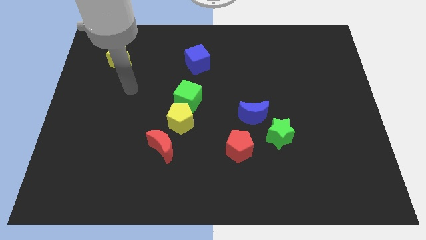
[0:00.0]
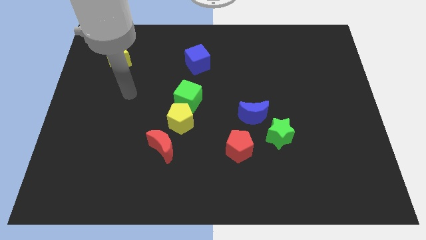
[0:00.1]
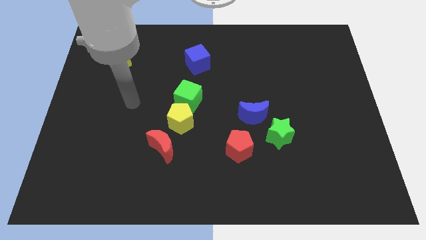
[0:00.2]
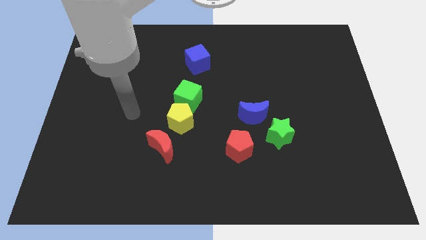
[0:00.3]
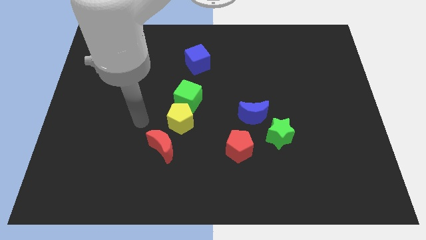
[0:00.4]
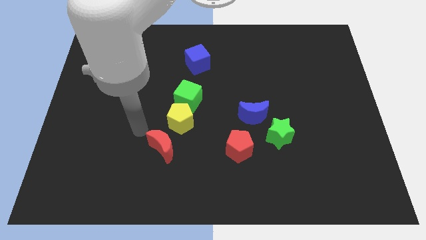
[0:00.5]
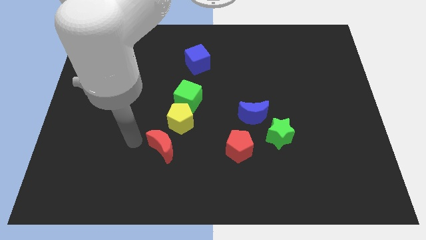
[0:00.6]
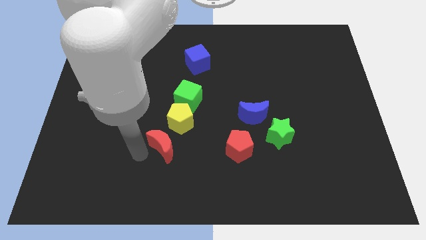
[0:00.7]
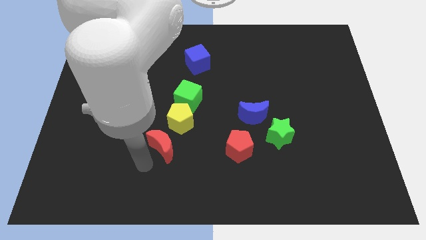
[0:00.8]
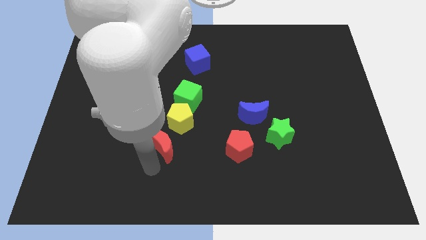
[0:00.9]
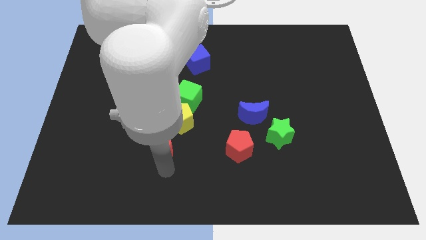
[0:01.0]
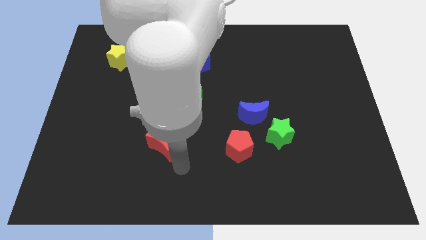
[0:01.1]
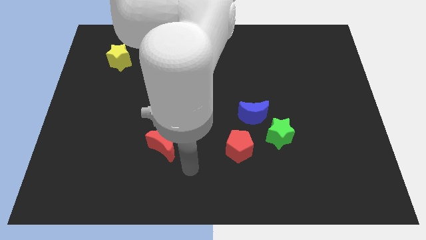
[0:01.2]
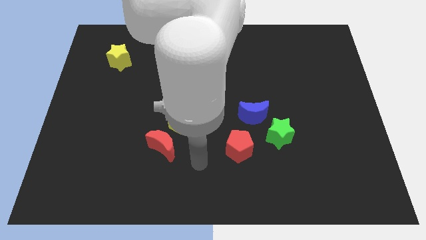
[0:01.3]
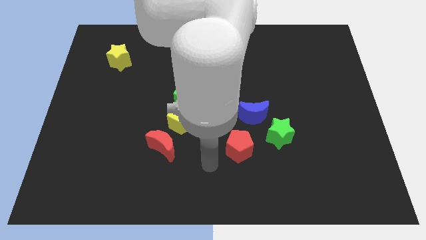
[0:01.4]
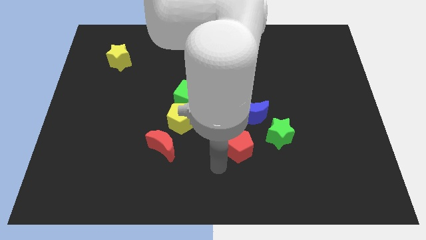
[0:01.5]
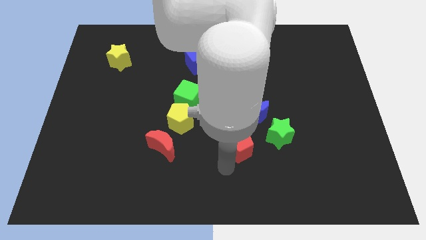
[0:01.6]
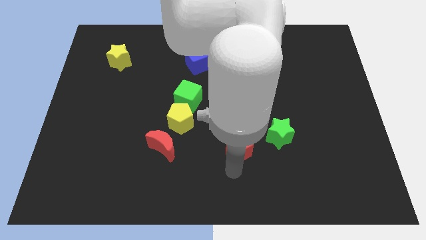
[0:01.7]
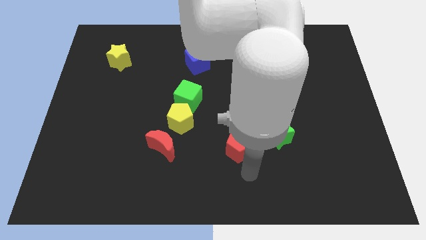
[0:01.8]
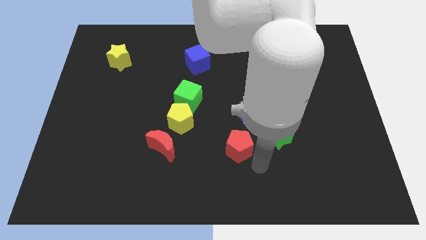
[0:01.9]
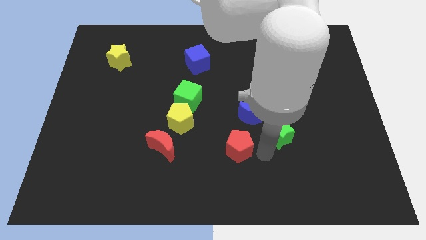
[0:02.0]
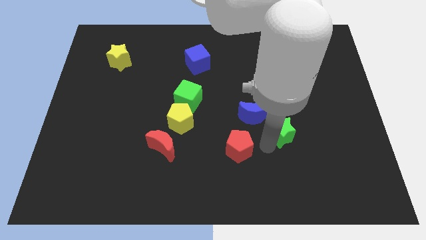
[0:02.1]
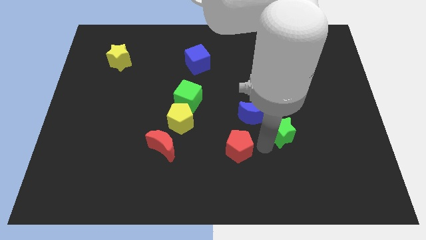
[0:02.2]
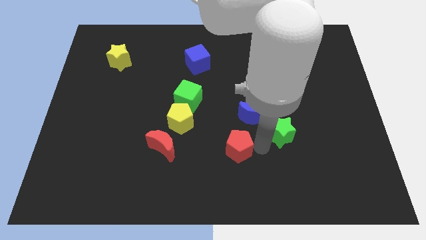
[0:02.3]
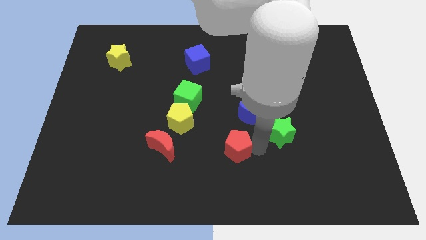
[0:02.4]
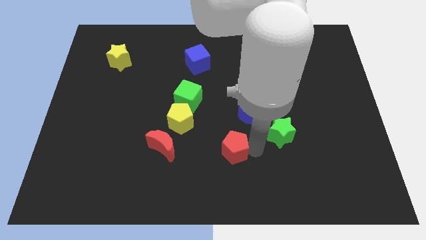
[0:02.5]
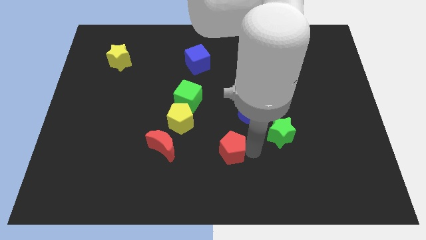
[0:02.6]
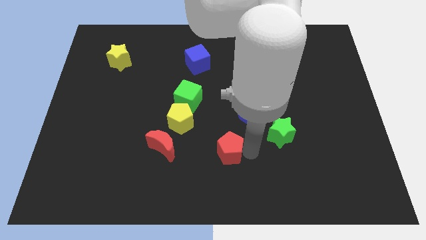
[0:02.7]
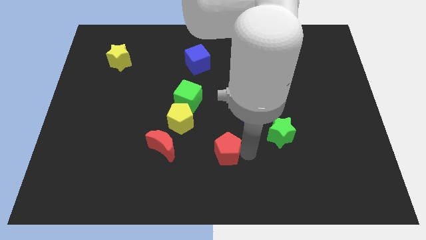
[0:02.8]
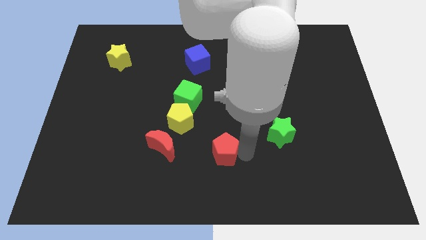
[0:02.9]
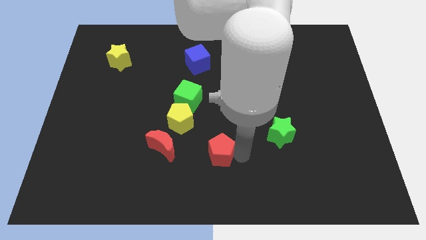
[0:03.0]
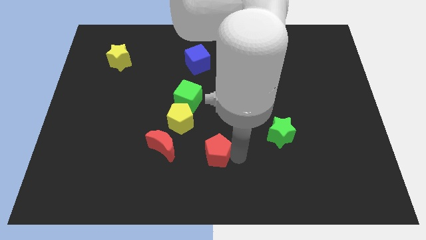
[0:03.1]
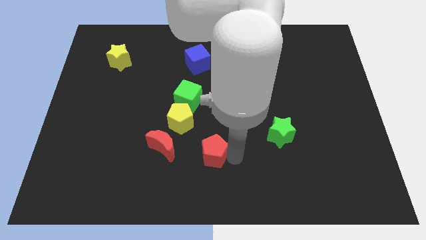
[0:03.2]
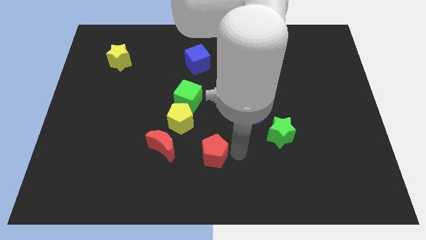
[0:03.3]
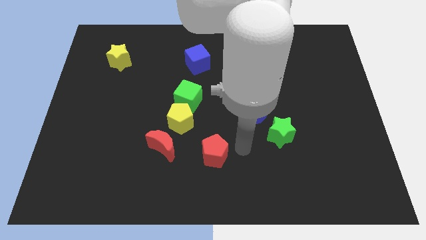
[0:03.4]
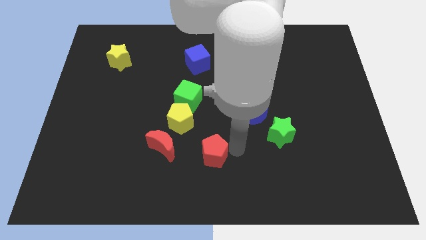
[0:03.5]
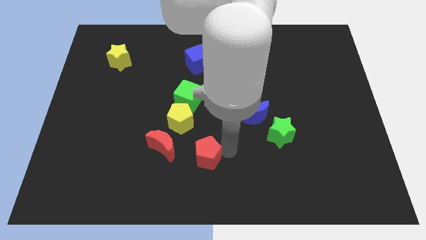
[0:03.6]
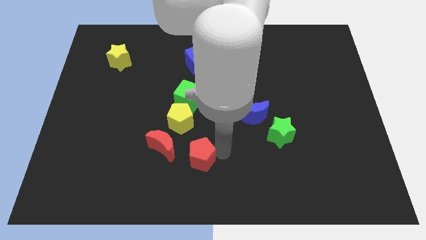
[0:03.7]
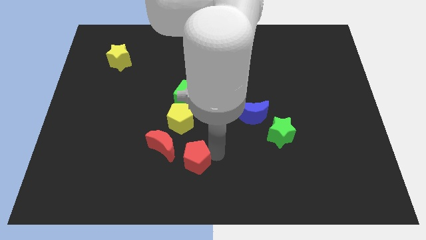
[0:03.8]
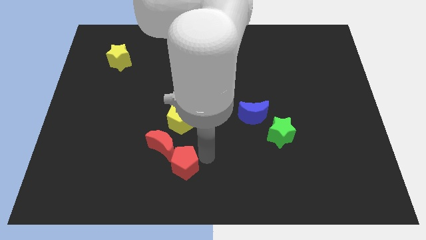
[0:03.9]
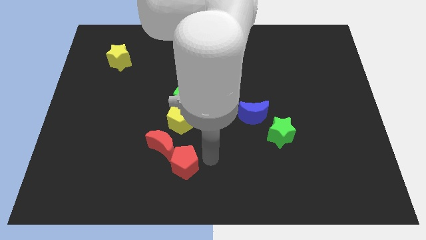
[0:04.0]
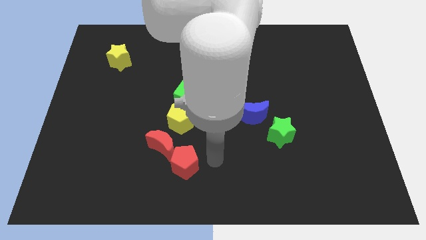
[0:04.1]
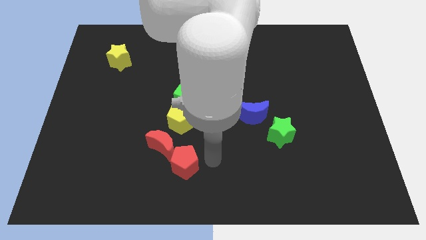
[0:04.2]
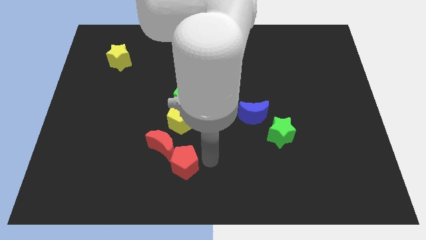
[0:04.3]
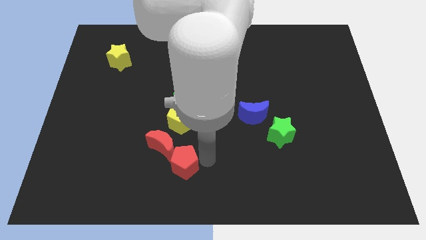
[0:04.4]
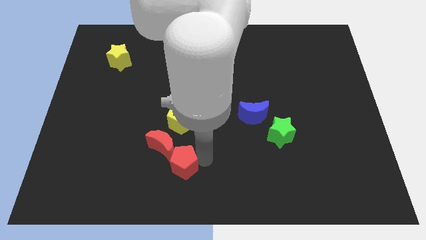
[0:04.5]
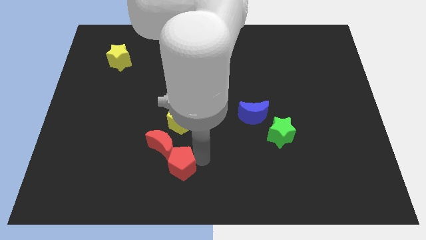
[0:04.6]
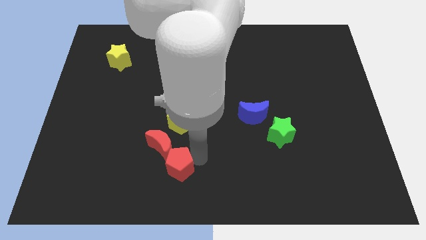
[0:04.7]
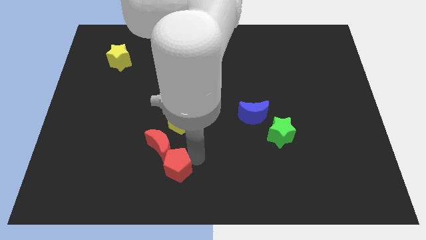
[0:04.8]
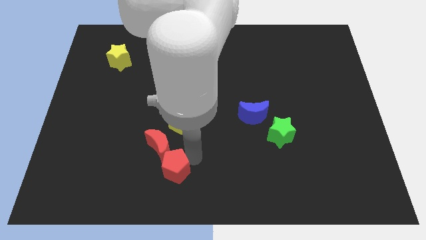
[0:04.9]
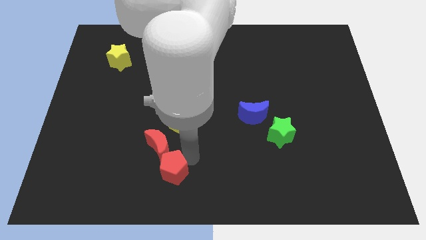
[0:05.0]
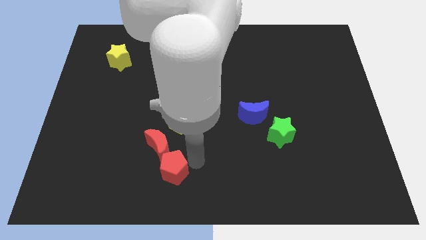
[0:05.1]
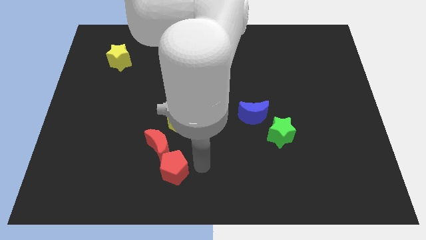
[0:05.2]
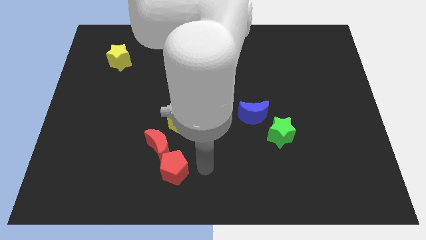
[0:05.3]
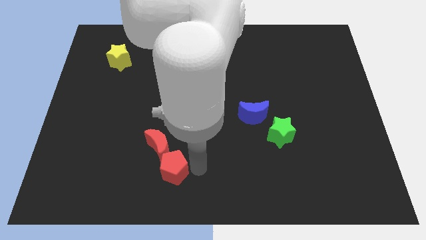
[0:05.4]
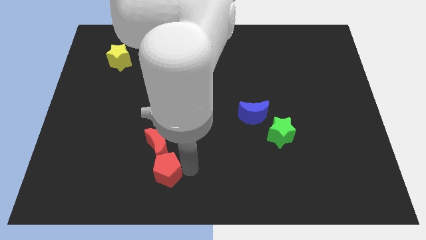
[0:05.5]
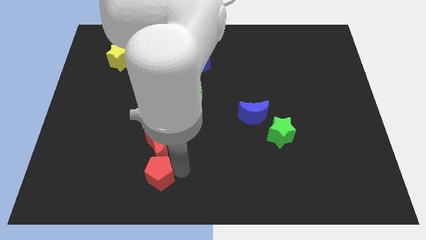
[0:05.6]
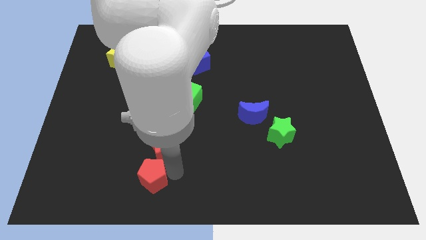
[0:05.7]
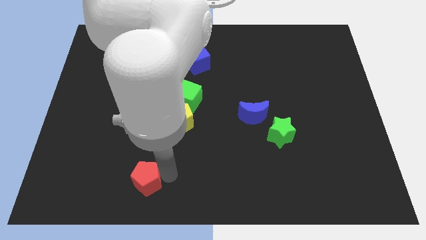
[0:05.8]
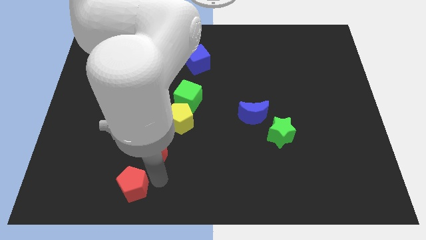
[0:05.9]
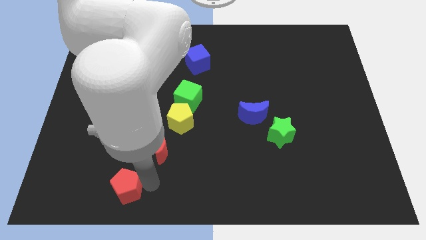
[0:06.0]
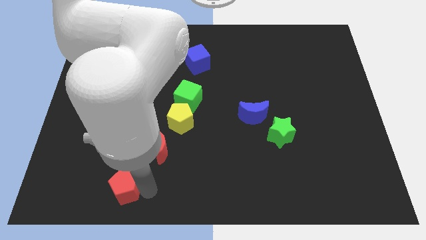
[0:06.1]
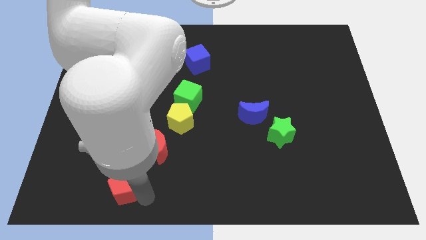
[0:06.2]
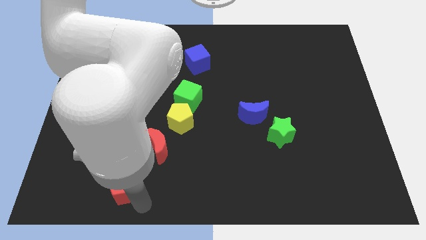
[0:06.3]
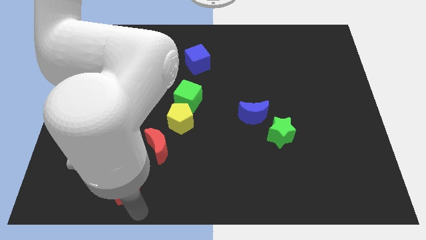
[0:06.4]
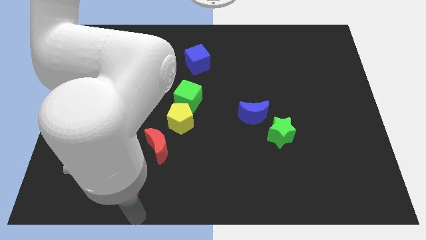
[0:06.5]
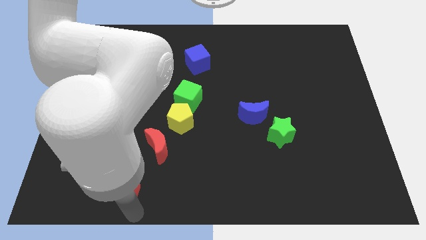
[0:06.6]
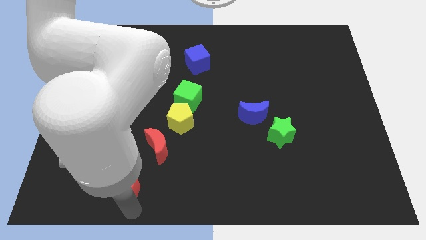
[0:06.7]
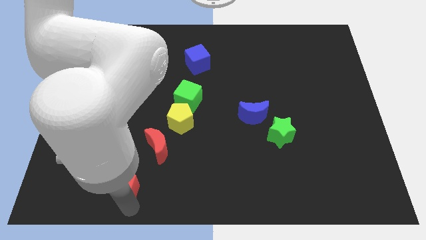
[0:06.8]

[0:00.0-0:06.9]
push the red pentagon to the left

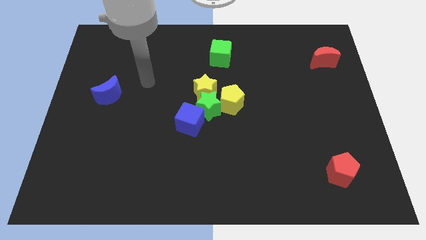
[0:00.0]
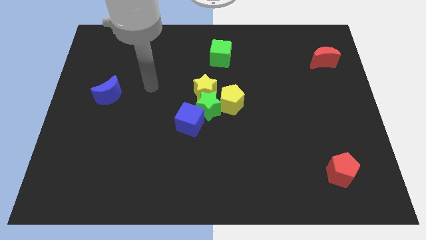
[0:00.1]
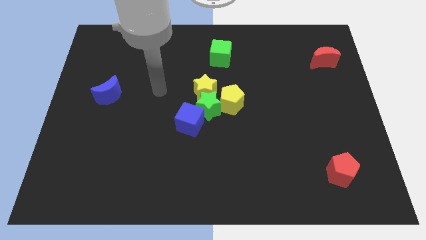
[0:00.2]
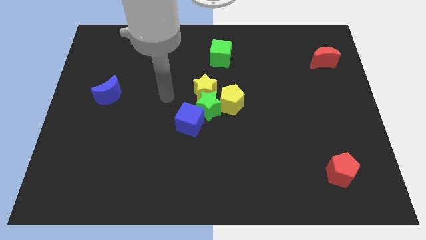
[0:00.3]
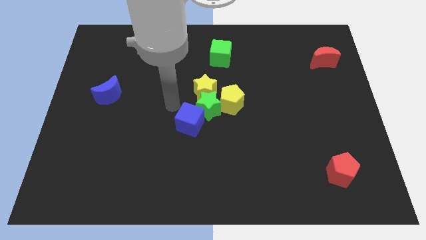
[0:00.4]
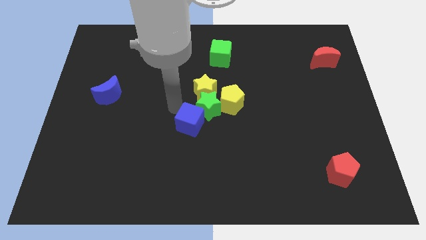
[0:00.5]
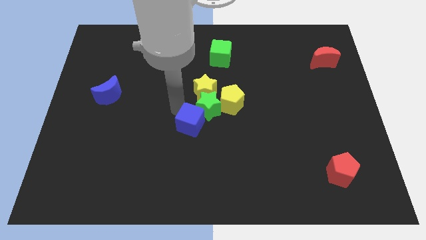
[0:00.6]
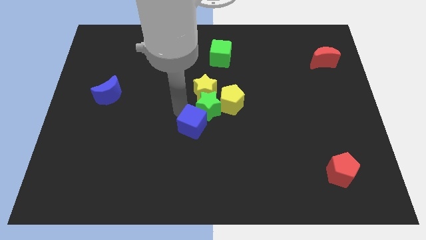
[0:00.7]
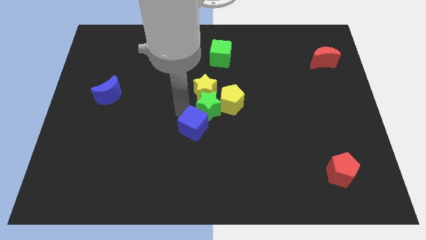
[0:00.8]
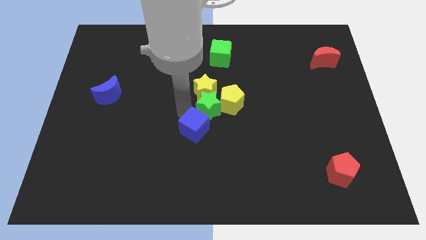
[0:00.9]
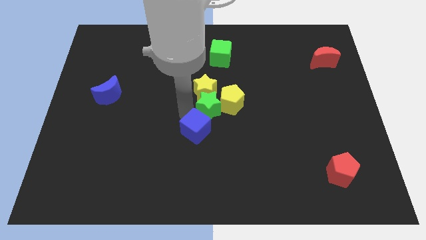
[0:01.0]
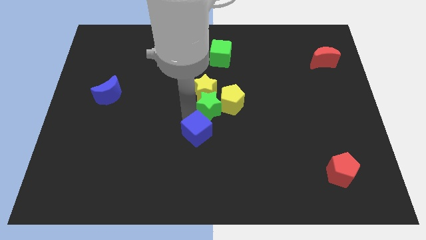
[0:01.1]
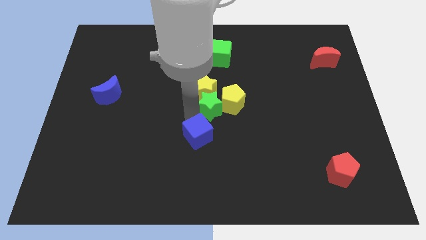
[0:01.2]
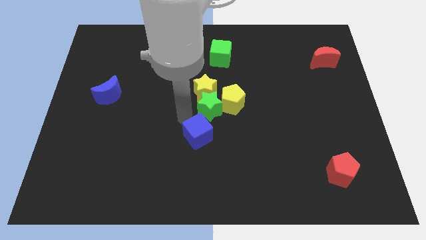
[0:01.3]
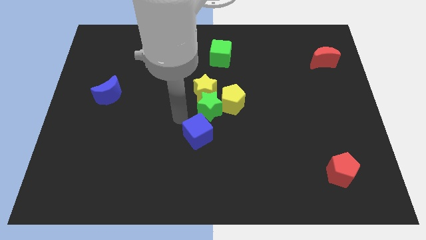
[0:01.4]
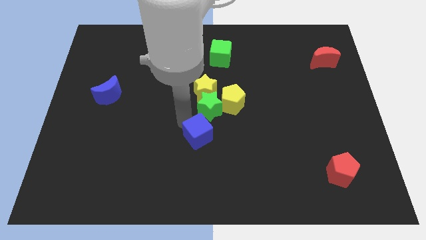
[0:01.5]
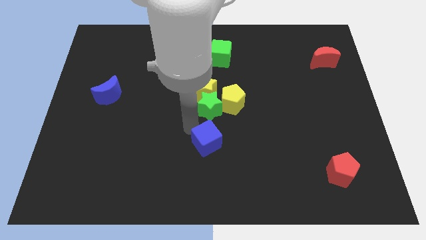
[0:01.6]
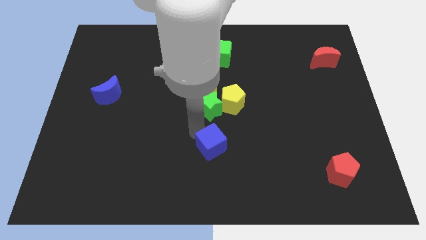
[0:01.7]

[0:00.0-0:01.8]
move the blue cube downwards and to the right a little

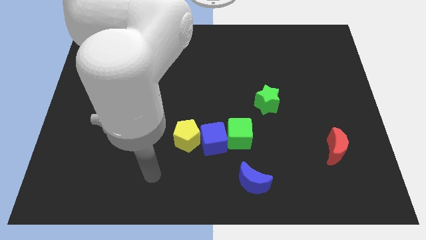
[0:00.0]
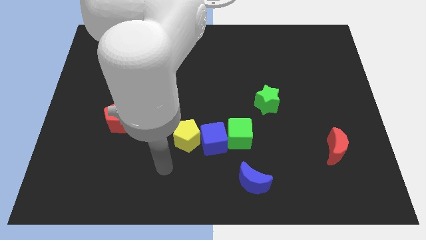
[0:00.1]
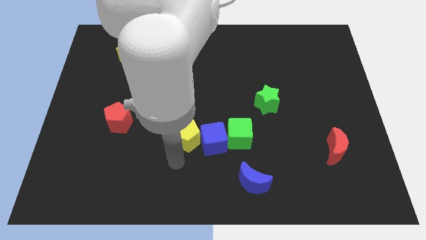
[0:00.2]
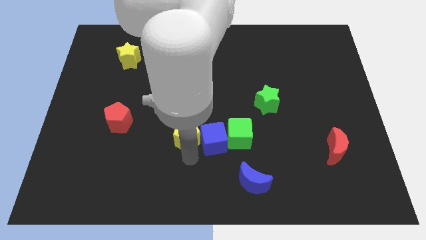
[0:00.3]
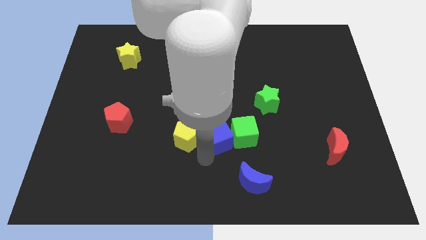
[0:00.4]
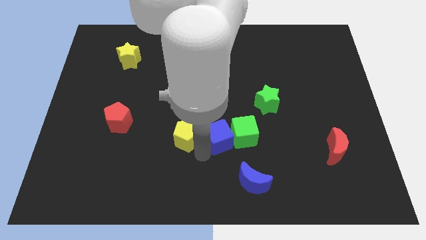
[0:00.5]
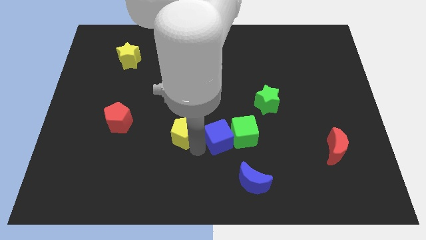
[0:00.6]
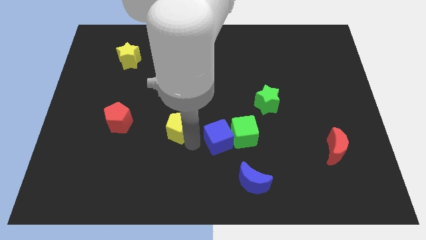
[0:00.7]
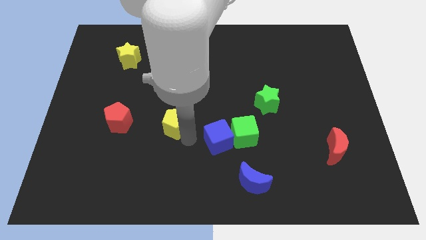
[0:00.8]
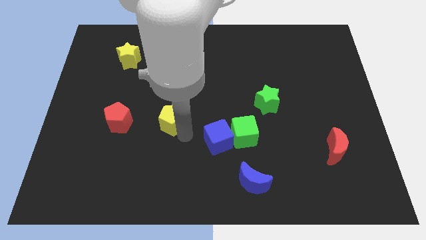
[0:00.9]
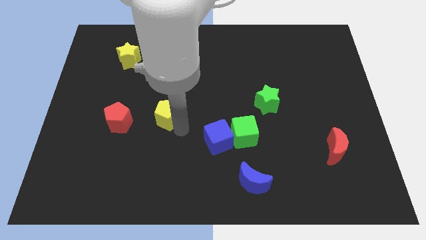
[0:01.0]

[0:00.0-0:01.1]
move the yellow pentagon diagonally up and to the left somewhat
